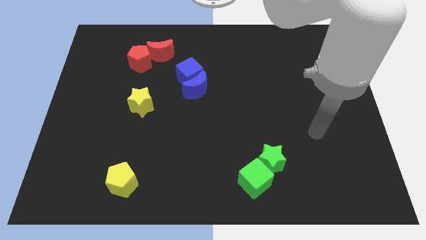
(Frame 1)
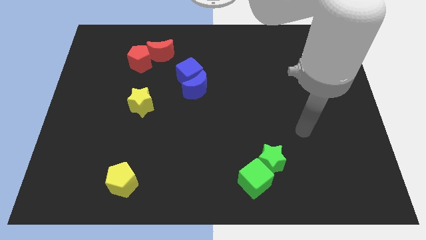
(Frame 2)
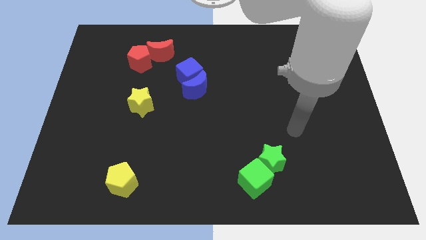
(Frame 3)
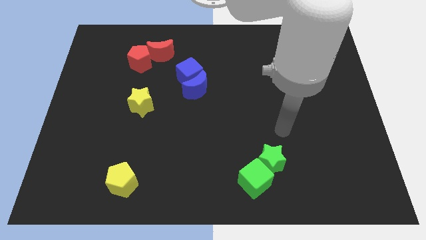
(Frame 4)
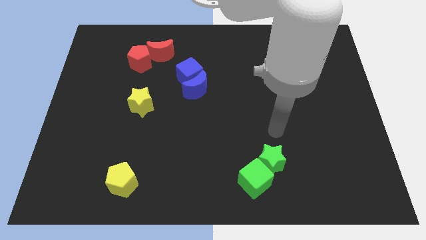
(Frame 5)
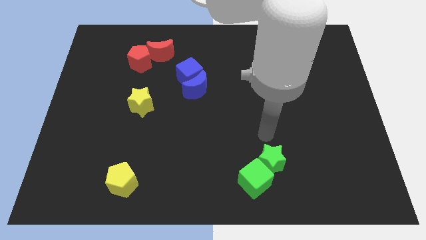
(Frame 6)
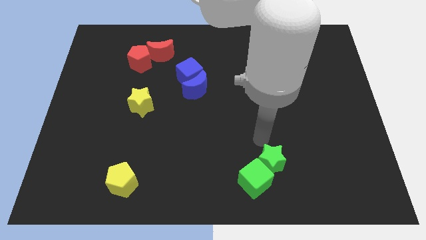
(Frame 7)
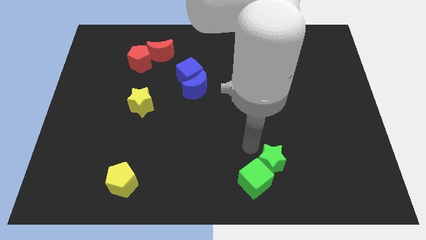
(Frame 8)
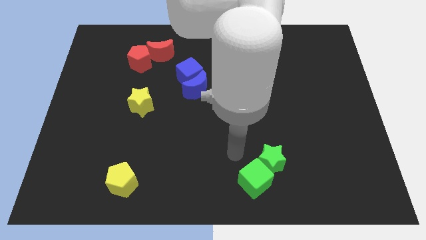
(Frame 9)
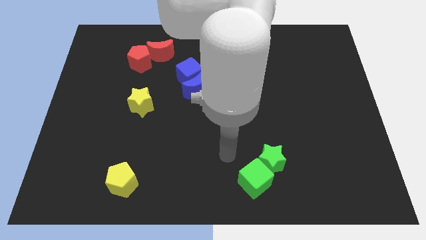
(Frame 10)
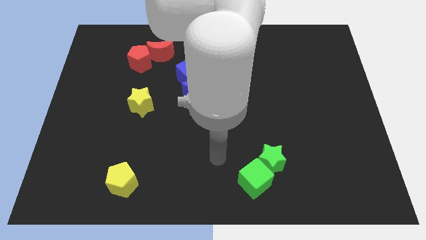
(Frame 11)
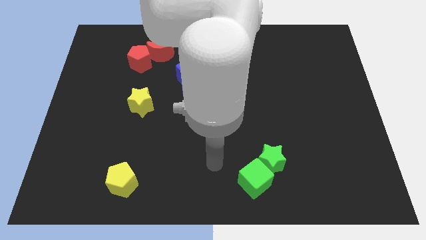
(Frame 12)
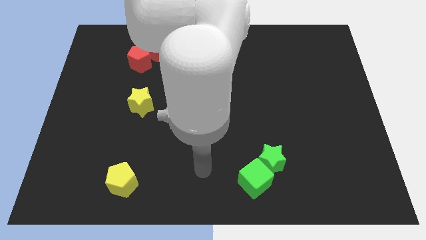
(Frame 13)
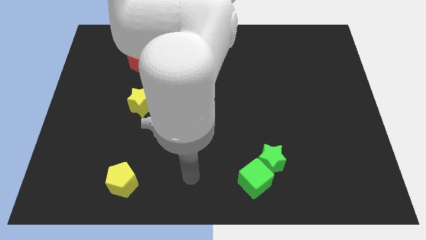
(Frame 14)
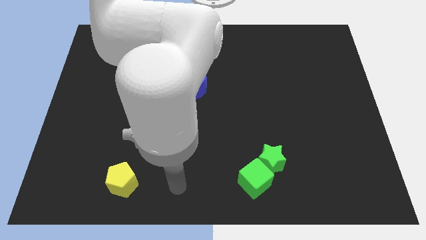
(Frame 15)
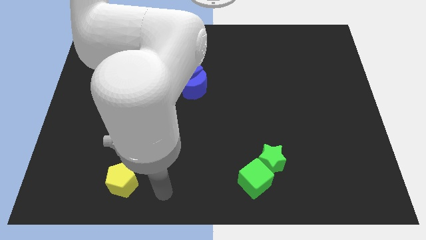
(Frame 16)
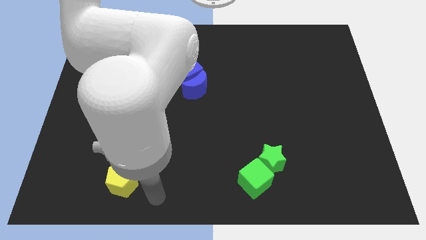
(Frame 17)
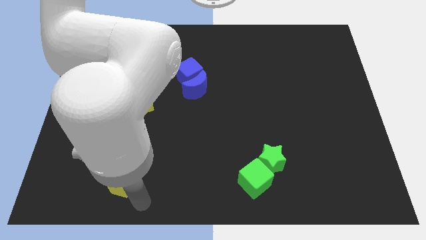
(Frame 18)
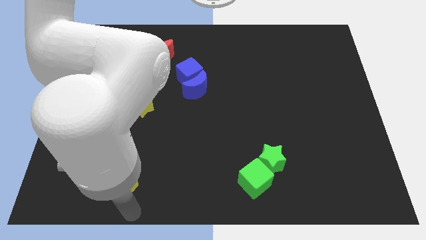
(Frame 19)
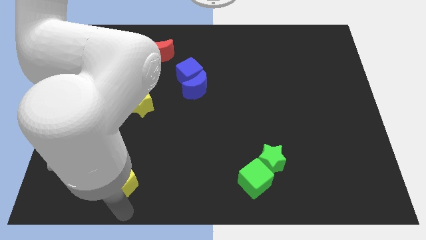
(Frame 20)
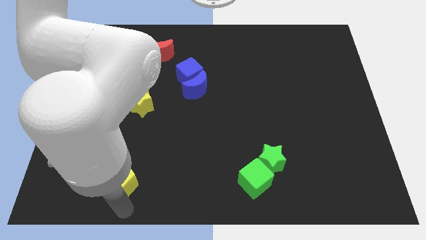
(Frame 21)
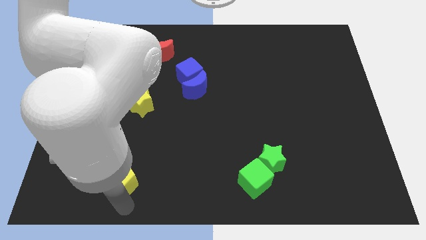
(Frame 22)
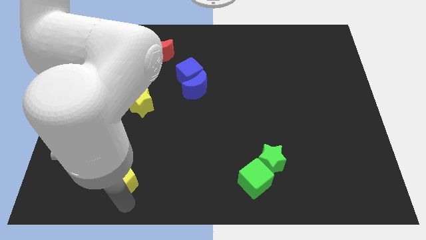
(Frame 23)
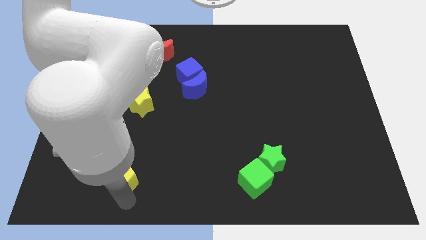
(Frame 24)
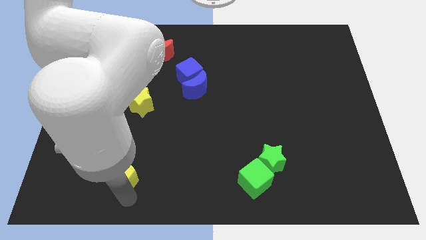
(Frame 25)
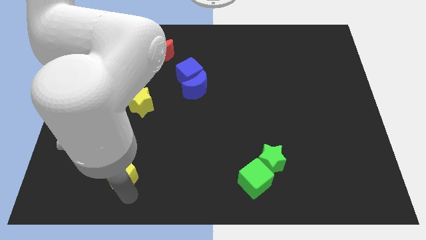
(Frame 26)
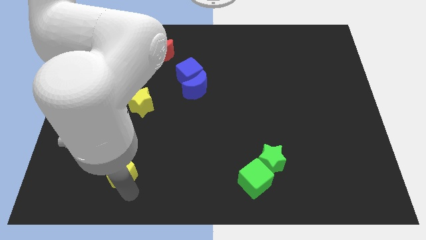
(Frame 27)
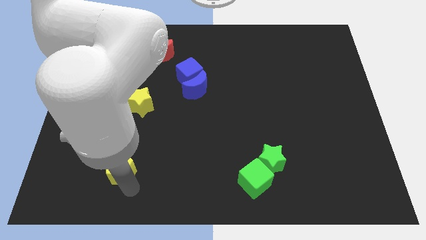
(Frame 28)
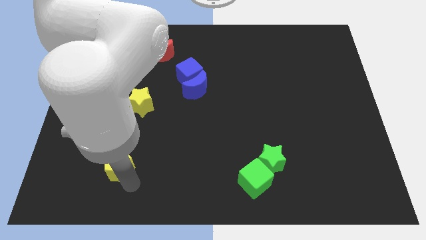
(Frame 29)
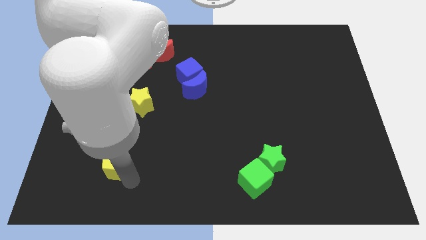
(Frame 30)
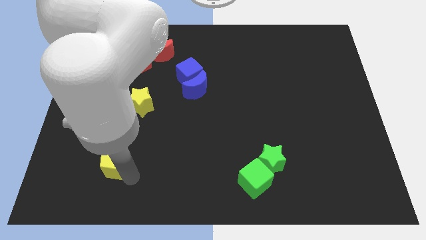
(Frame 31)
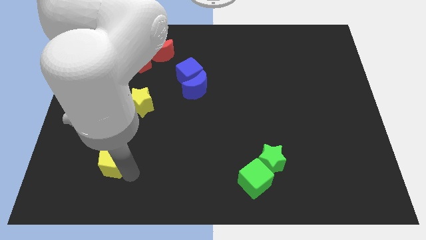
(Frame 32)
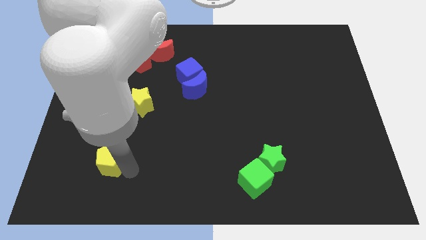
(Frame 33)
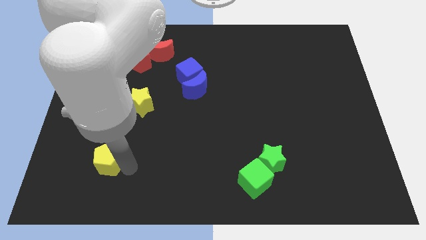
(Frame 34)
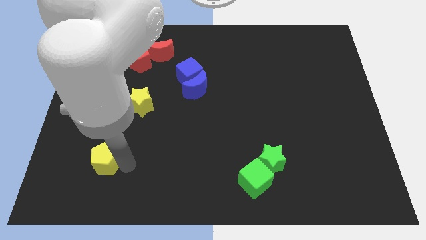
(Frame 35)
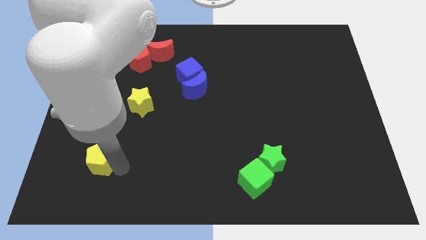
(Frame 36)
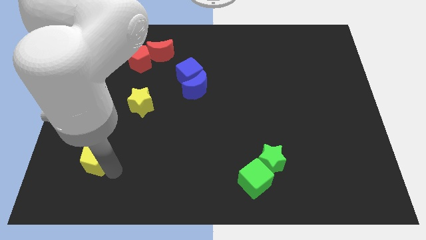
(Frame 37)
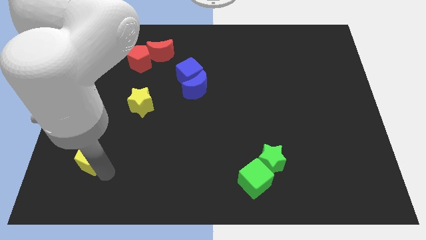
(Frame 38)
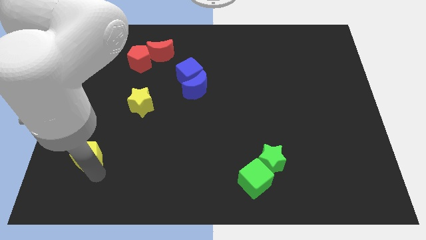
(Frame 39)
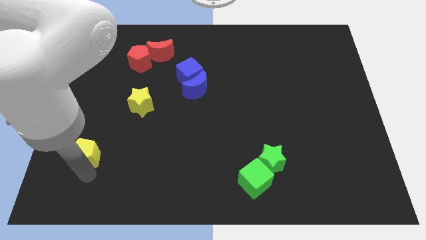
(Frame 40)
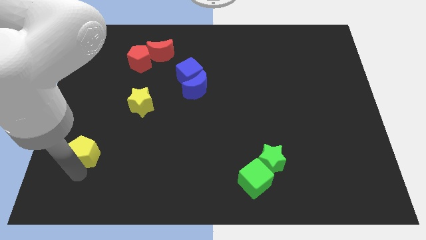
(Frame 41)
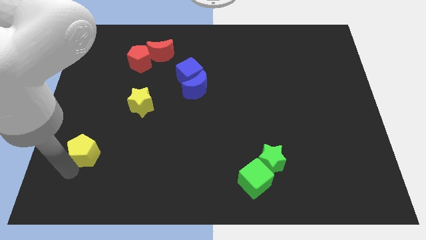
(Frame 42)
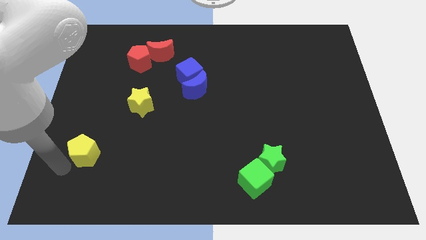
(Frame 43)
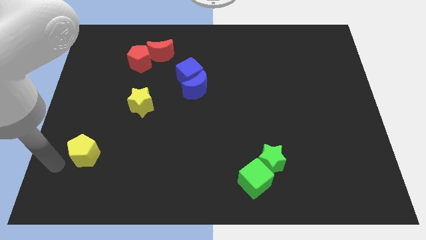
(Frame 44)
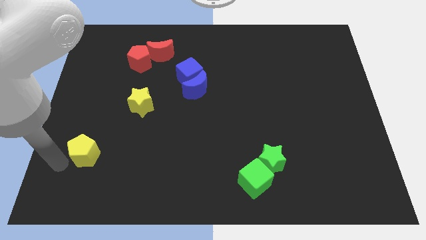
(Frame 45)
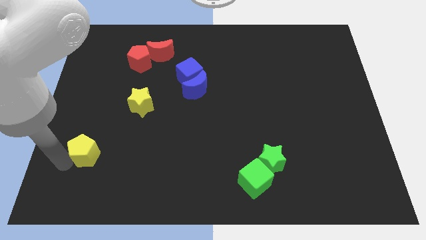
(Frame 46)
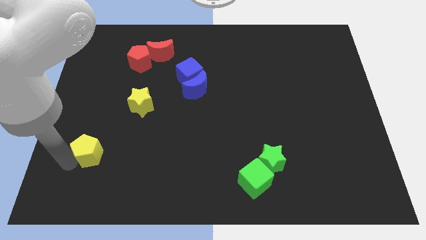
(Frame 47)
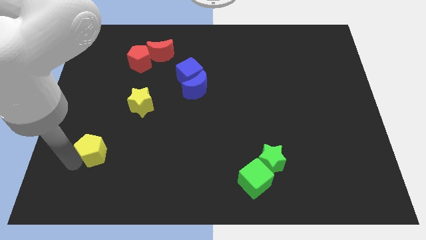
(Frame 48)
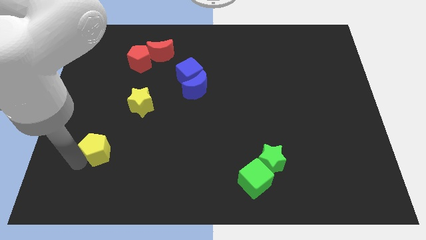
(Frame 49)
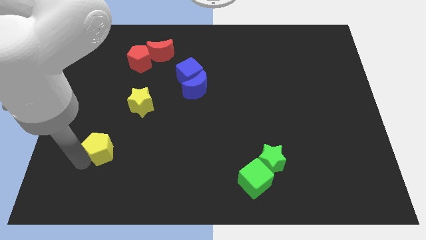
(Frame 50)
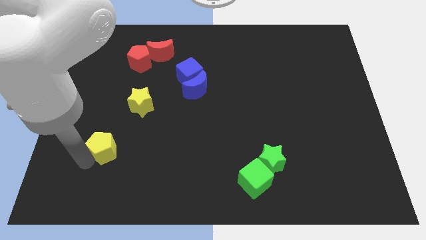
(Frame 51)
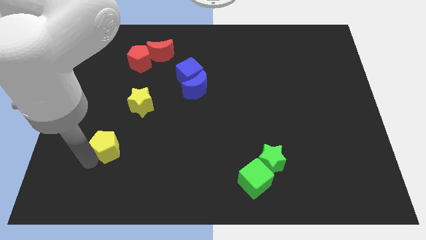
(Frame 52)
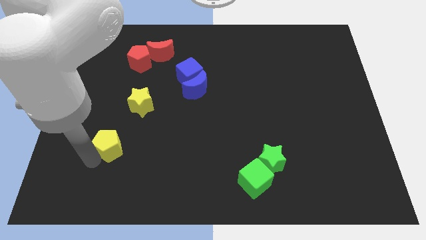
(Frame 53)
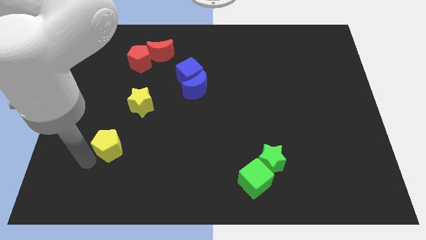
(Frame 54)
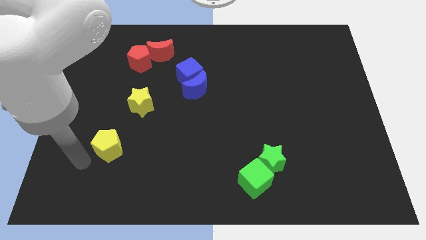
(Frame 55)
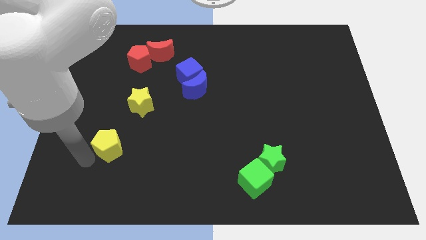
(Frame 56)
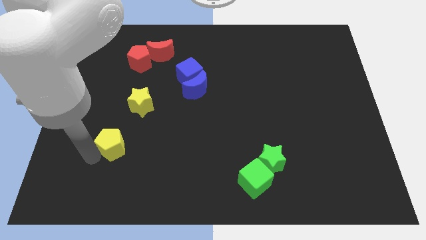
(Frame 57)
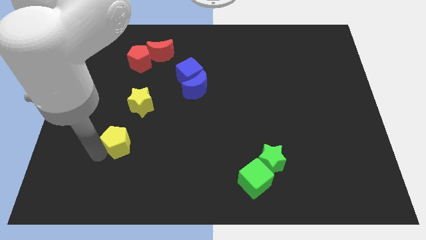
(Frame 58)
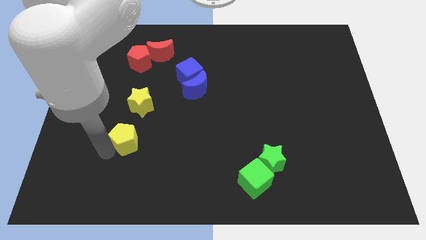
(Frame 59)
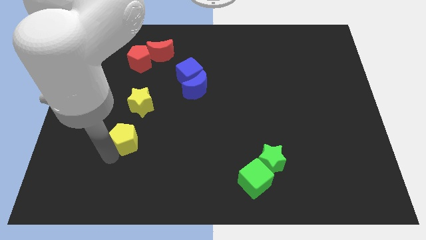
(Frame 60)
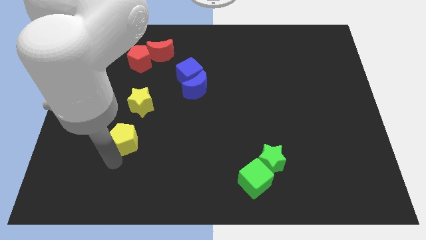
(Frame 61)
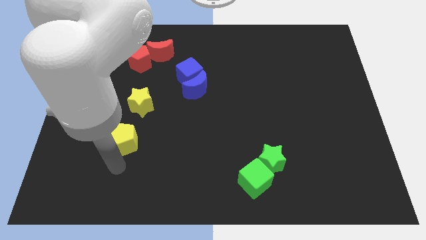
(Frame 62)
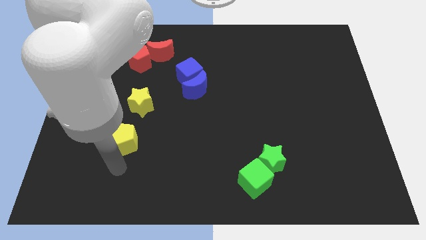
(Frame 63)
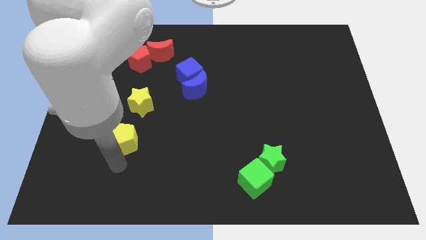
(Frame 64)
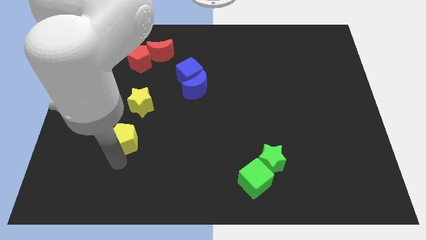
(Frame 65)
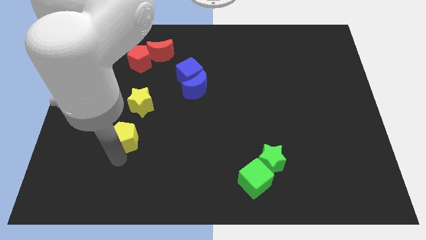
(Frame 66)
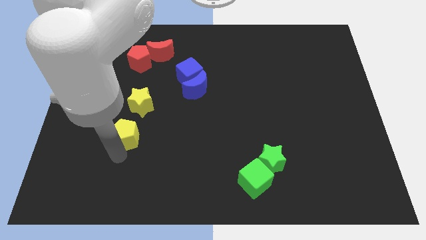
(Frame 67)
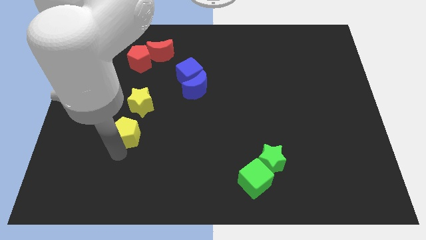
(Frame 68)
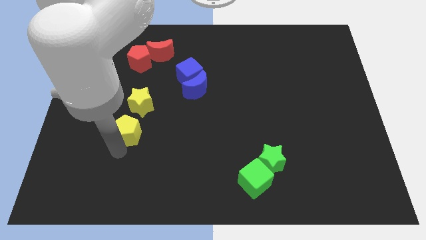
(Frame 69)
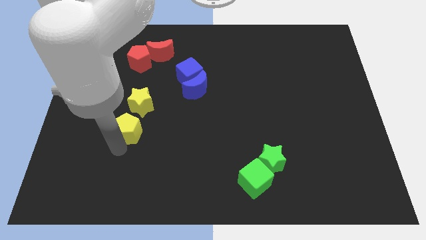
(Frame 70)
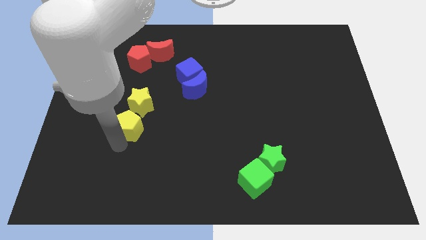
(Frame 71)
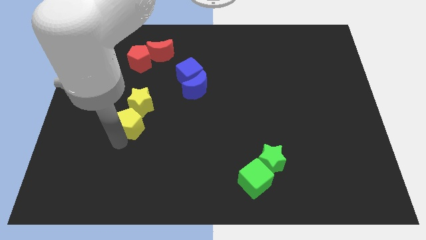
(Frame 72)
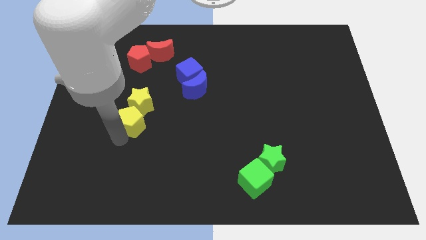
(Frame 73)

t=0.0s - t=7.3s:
slide the yellow pentagon to the yellow star

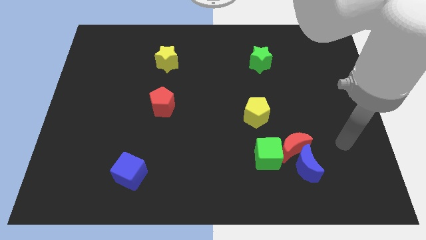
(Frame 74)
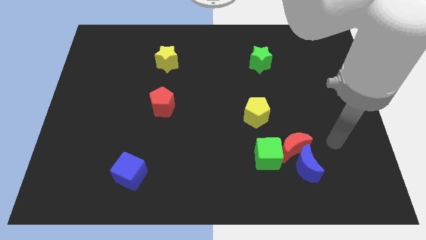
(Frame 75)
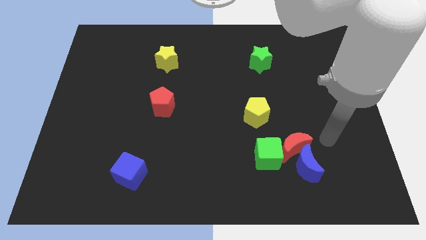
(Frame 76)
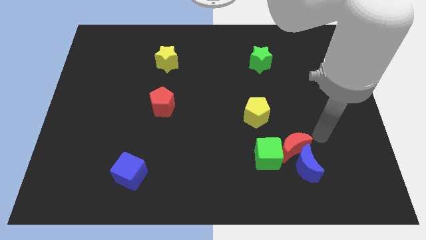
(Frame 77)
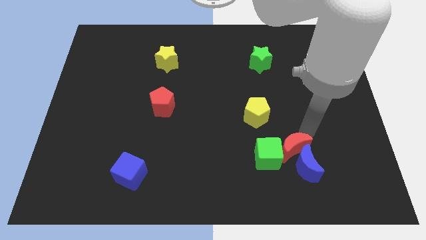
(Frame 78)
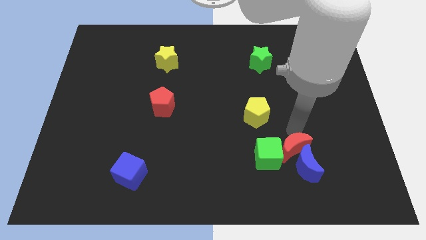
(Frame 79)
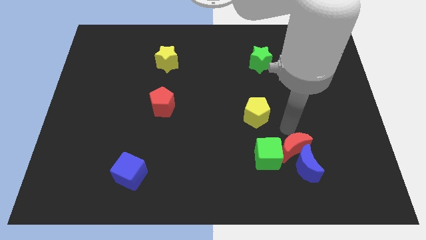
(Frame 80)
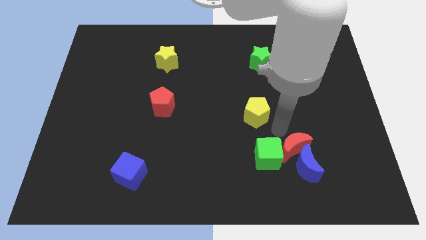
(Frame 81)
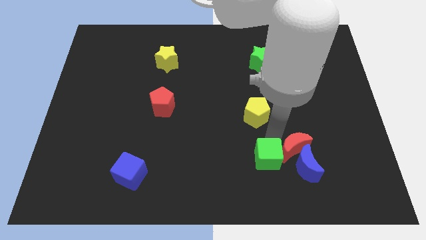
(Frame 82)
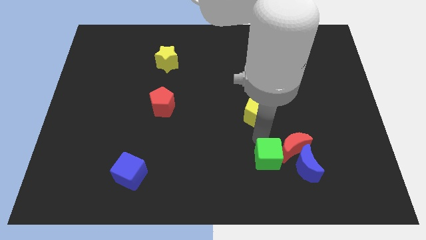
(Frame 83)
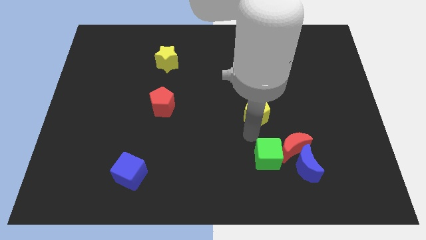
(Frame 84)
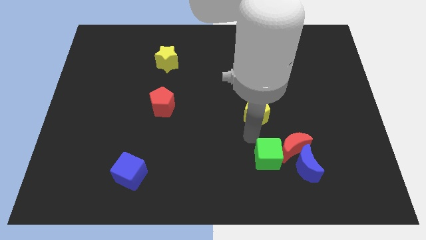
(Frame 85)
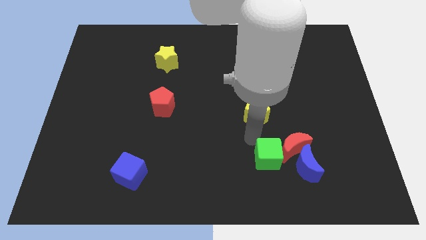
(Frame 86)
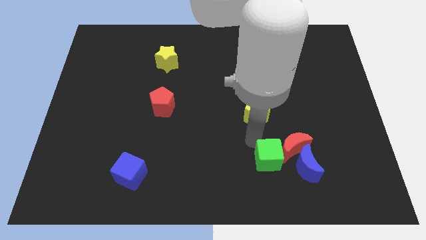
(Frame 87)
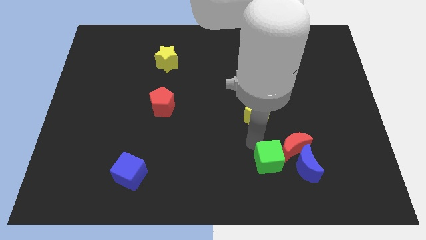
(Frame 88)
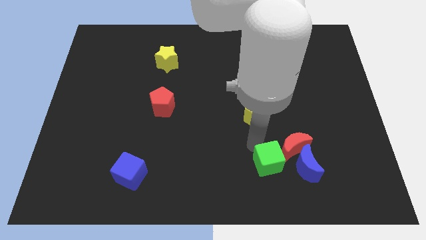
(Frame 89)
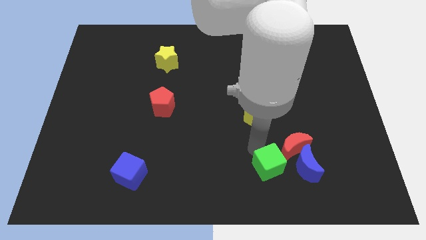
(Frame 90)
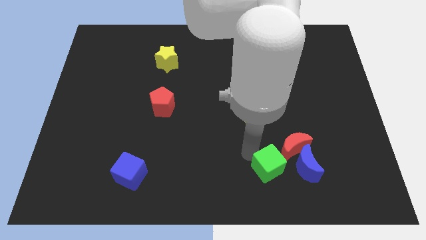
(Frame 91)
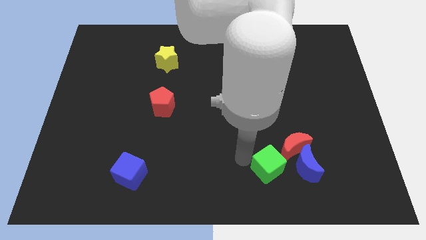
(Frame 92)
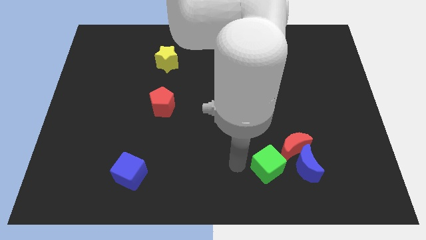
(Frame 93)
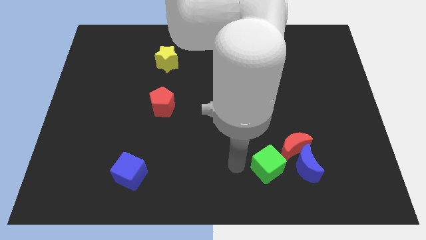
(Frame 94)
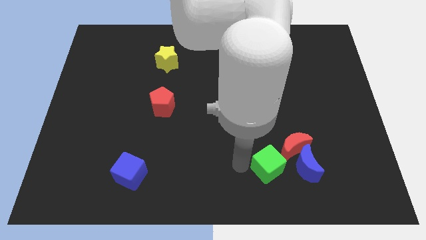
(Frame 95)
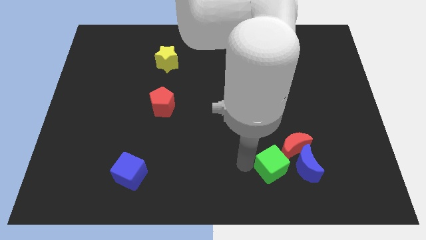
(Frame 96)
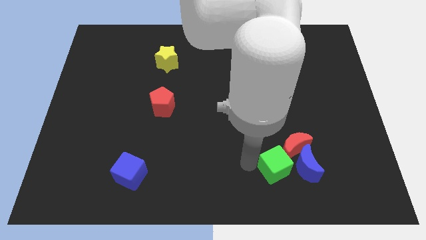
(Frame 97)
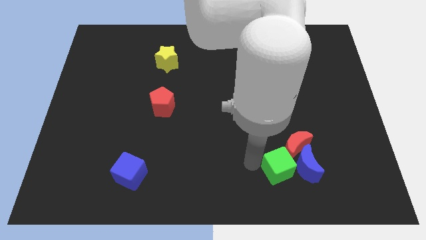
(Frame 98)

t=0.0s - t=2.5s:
put the green cube to the blue moon
